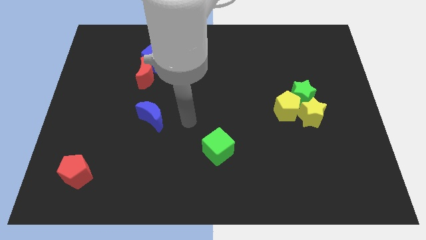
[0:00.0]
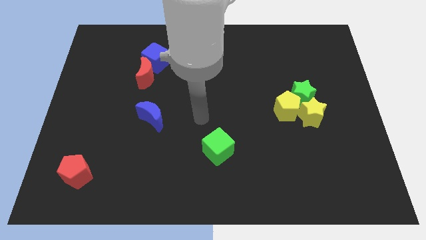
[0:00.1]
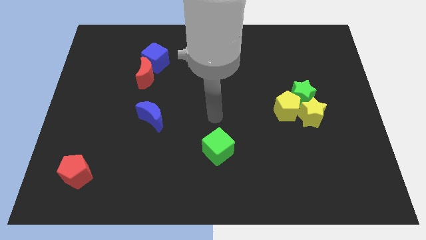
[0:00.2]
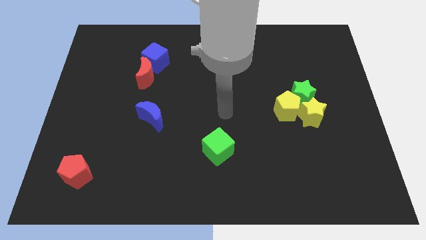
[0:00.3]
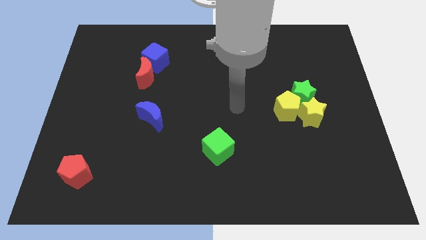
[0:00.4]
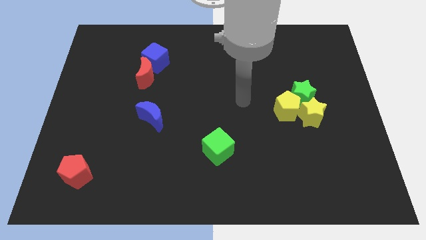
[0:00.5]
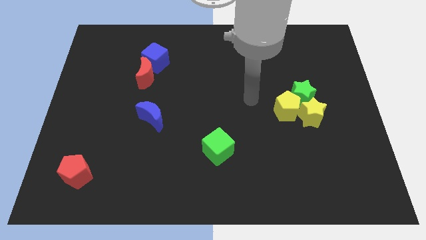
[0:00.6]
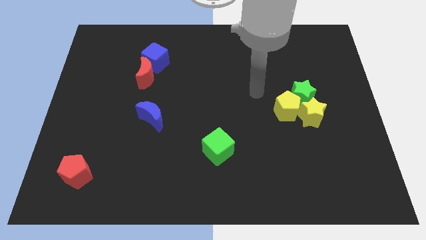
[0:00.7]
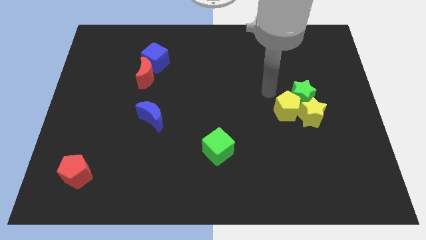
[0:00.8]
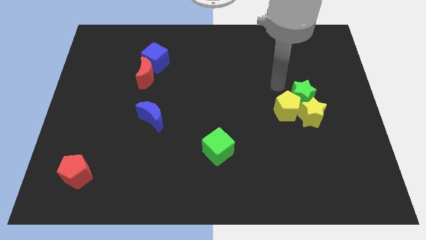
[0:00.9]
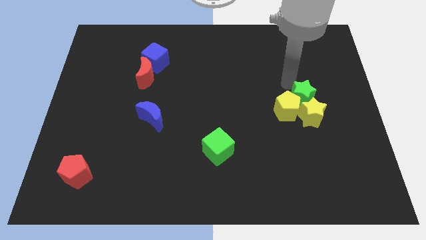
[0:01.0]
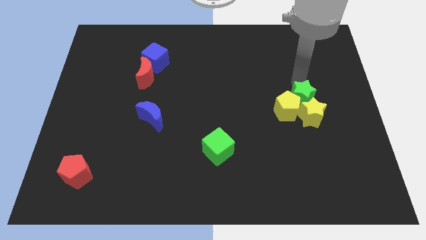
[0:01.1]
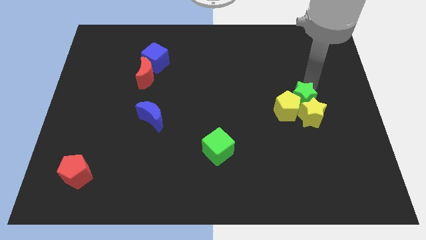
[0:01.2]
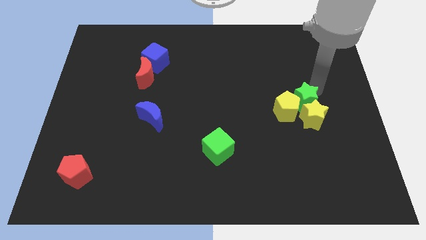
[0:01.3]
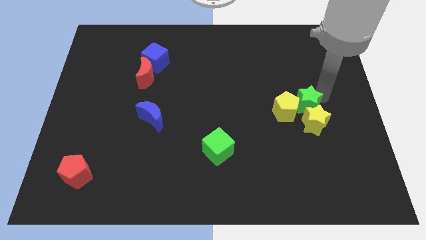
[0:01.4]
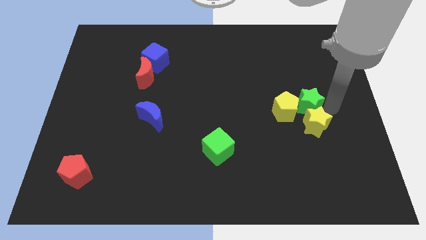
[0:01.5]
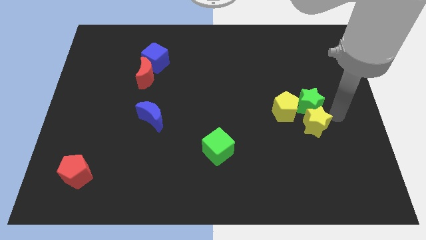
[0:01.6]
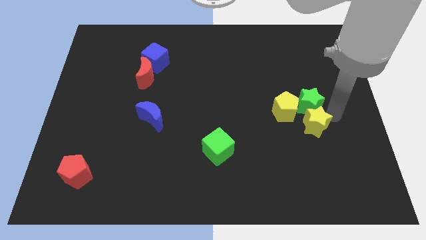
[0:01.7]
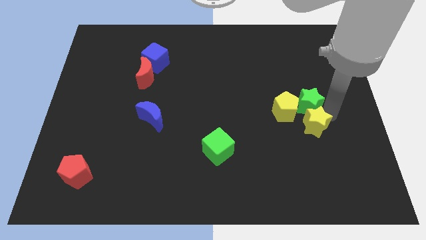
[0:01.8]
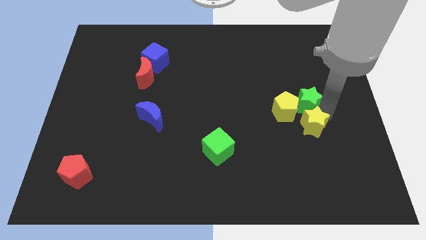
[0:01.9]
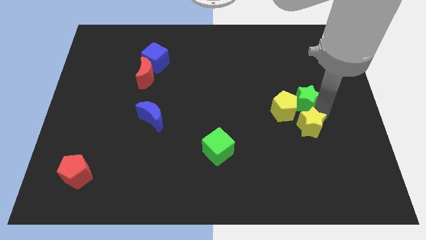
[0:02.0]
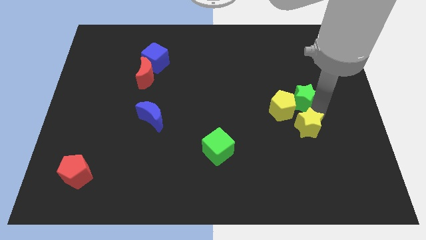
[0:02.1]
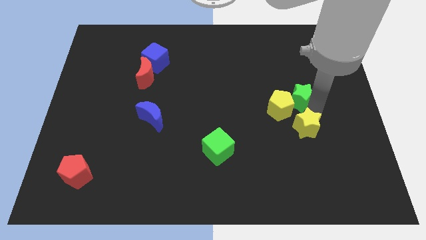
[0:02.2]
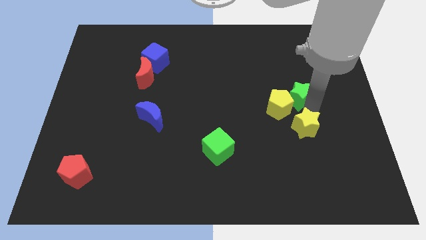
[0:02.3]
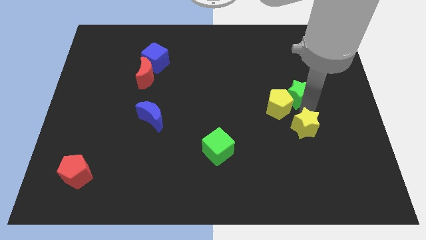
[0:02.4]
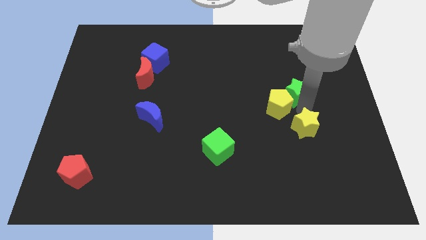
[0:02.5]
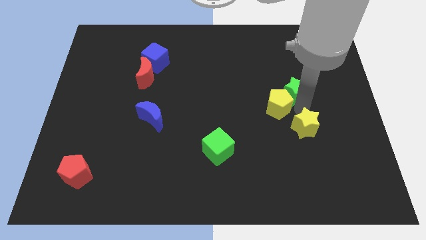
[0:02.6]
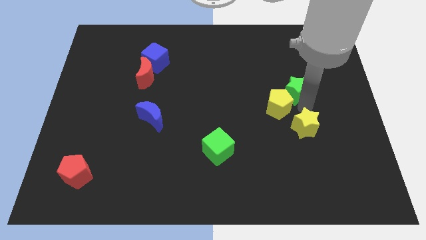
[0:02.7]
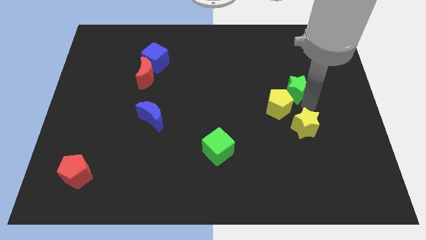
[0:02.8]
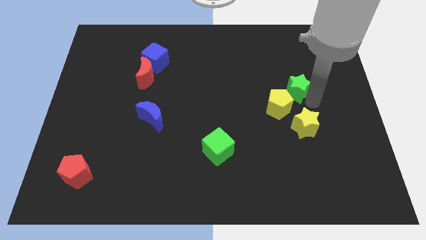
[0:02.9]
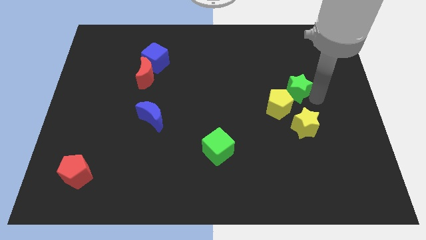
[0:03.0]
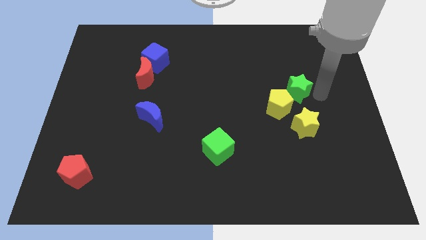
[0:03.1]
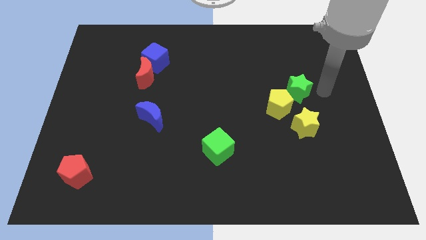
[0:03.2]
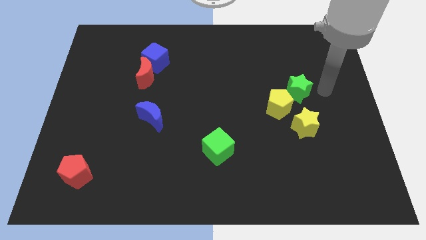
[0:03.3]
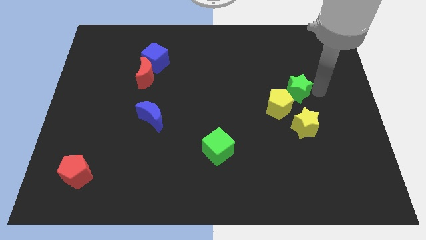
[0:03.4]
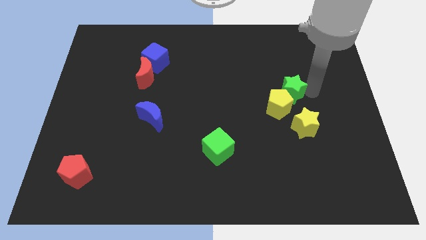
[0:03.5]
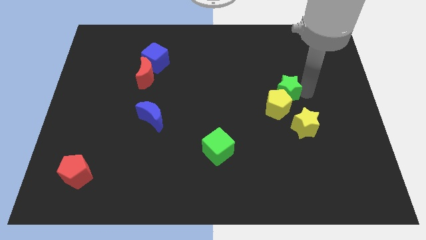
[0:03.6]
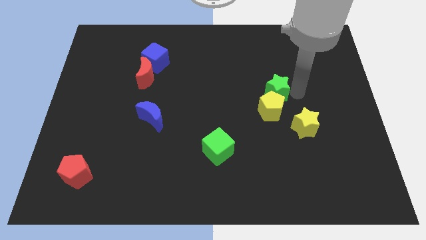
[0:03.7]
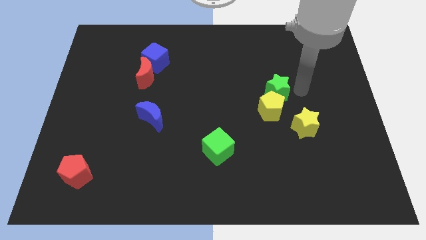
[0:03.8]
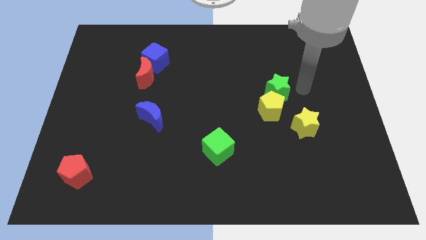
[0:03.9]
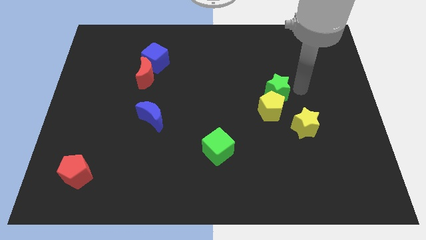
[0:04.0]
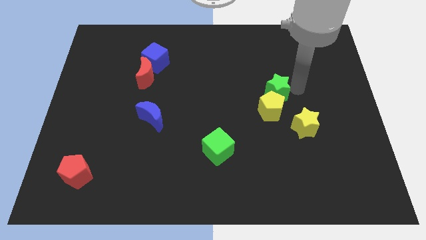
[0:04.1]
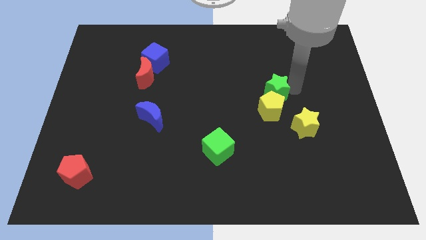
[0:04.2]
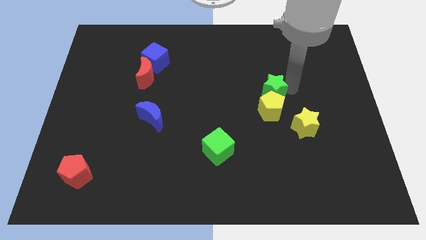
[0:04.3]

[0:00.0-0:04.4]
push the green star left somewhat

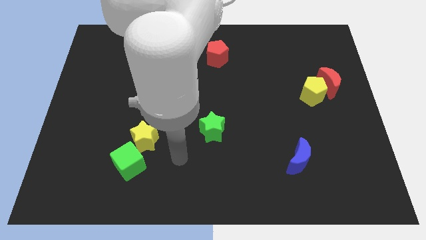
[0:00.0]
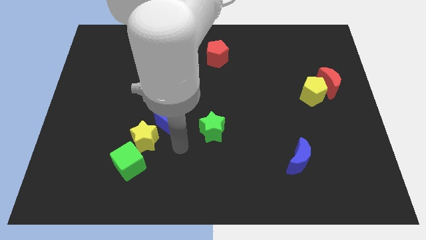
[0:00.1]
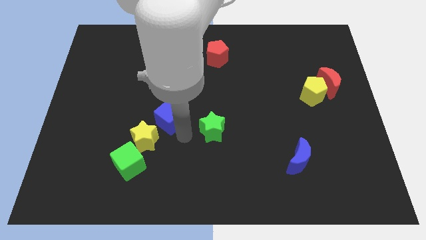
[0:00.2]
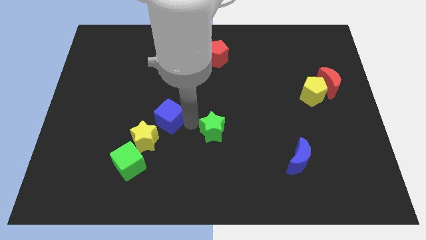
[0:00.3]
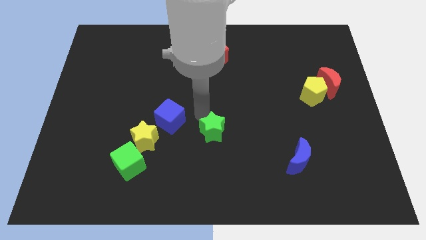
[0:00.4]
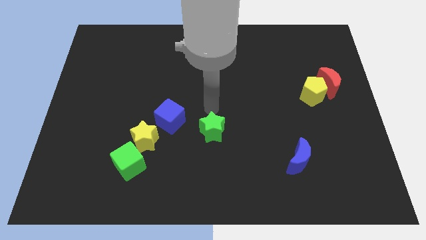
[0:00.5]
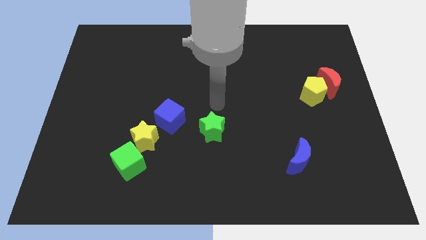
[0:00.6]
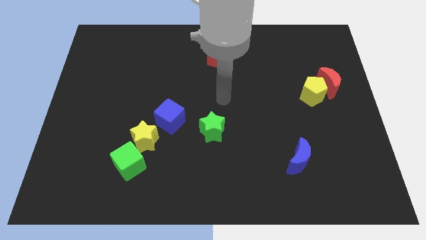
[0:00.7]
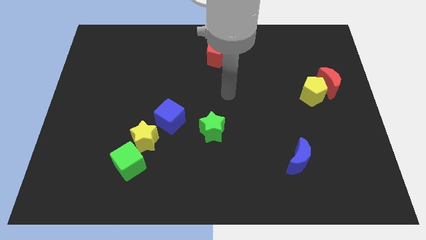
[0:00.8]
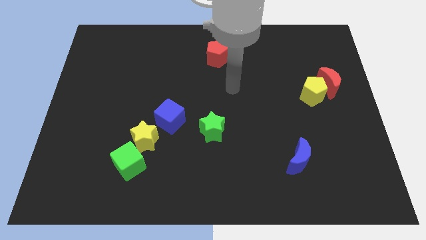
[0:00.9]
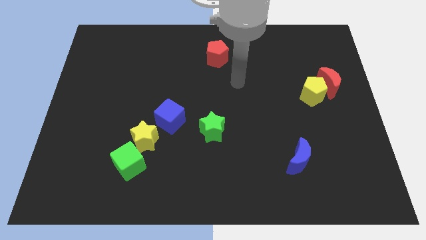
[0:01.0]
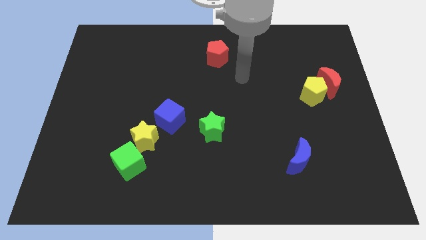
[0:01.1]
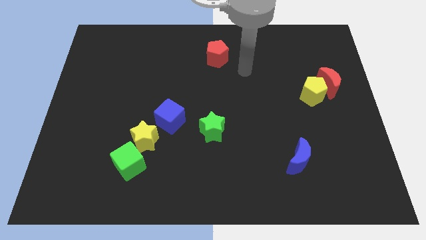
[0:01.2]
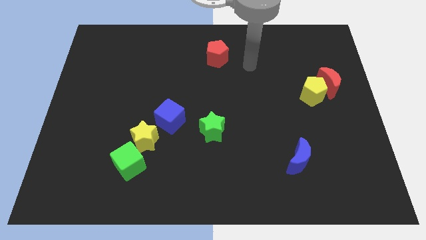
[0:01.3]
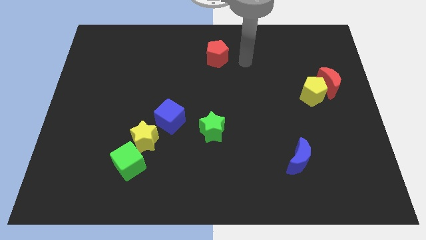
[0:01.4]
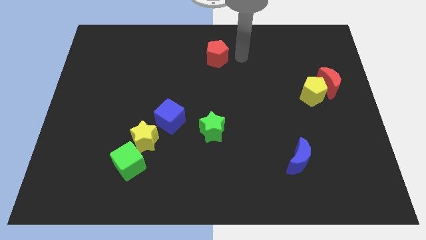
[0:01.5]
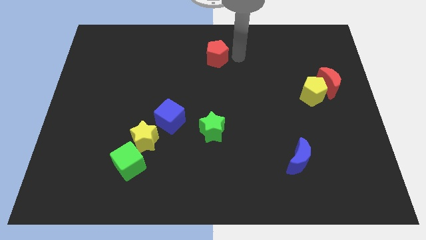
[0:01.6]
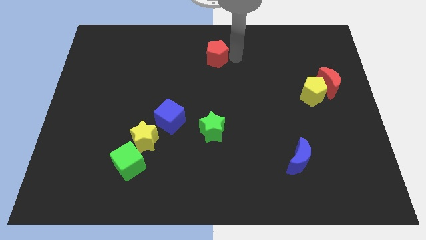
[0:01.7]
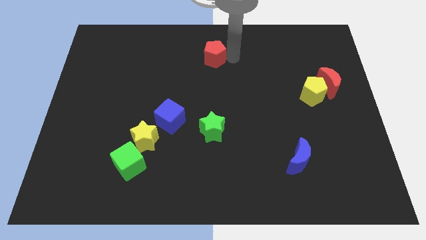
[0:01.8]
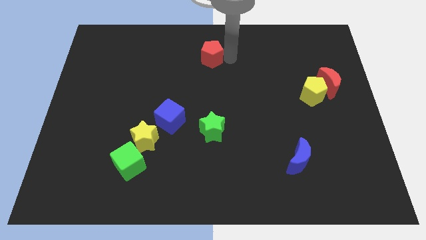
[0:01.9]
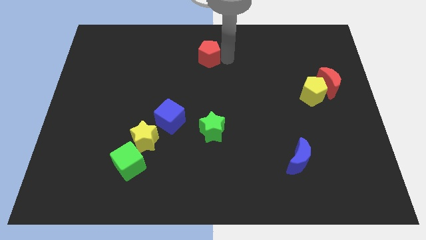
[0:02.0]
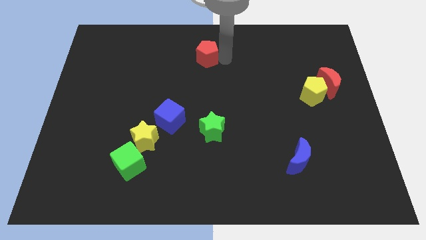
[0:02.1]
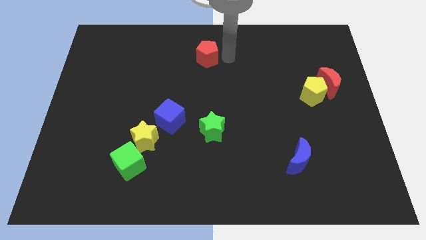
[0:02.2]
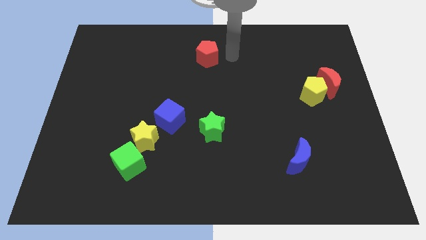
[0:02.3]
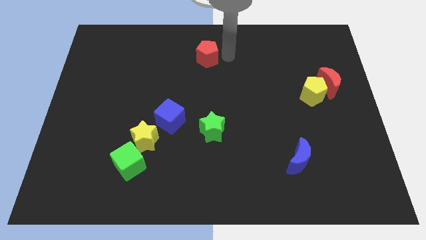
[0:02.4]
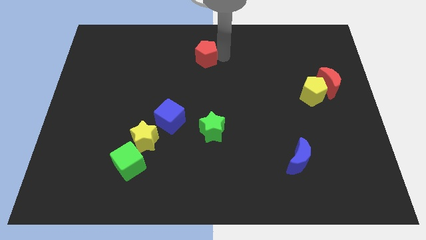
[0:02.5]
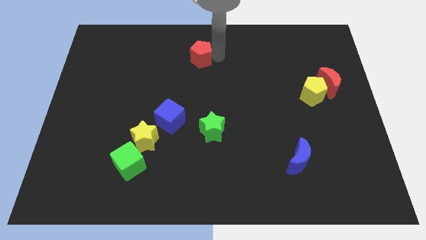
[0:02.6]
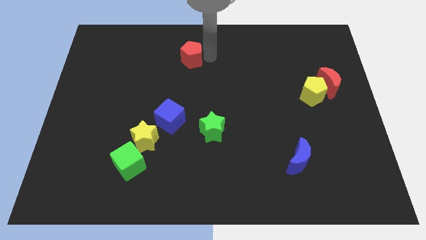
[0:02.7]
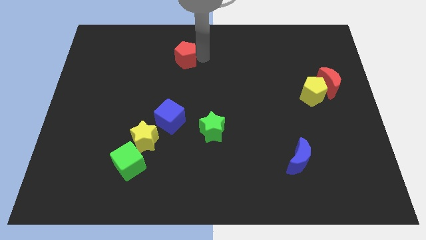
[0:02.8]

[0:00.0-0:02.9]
slide the red pentagon a bit left

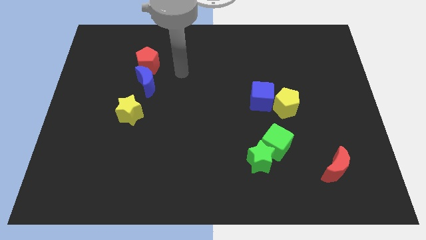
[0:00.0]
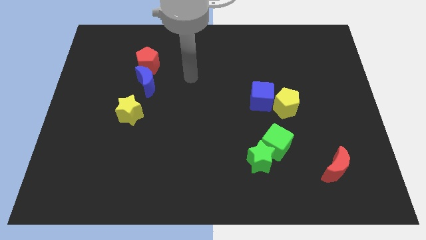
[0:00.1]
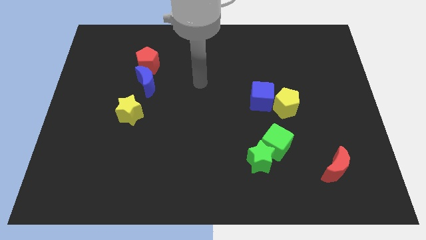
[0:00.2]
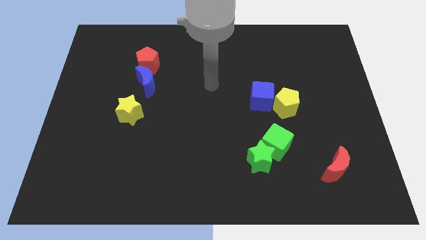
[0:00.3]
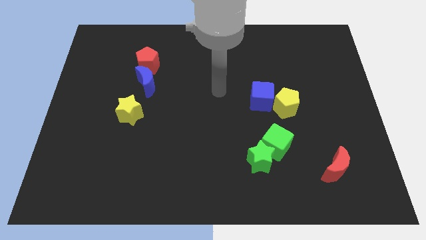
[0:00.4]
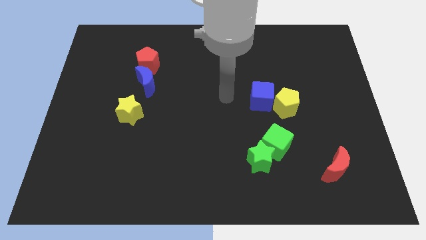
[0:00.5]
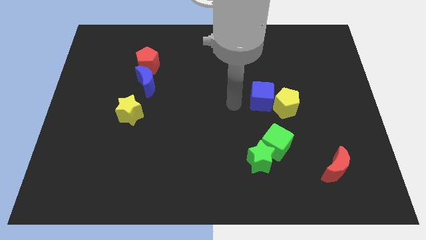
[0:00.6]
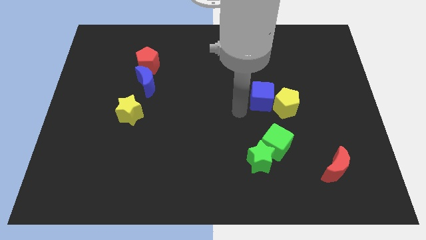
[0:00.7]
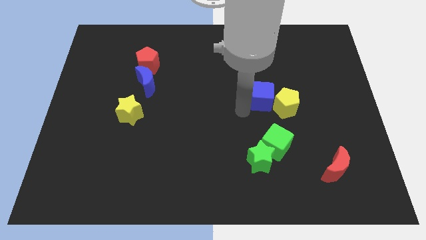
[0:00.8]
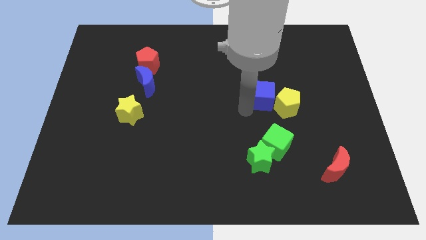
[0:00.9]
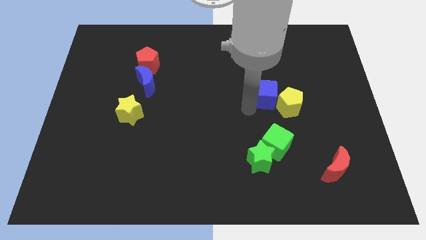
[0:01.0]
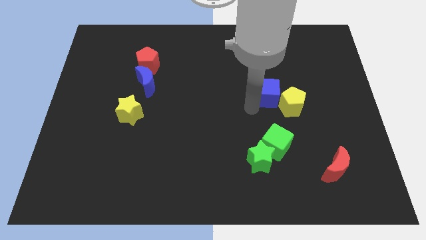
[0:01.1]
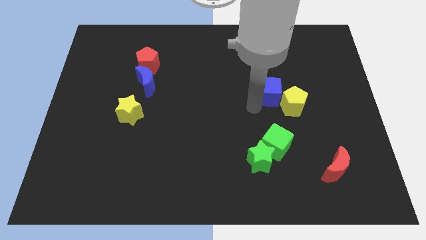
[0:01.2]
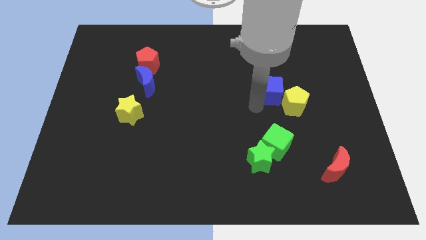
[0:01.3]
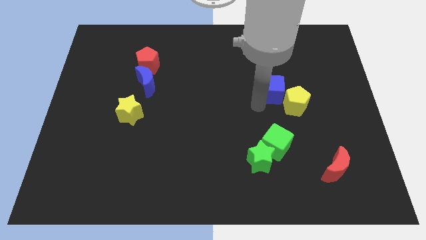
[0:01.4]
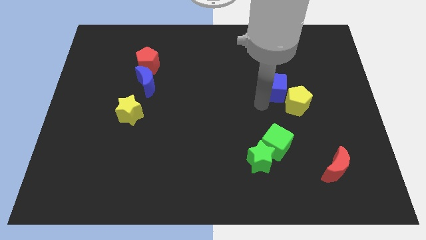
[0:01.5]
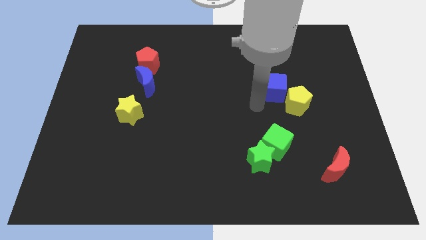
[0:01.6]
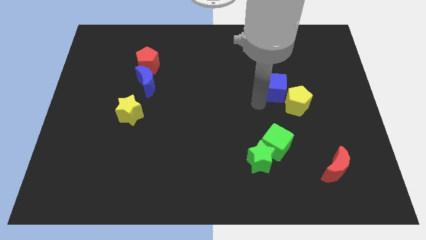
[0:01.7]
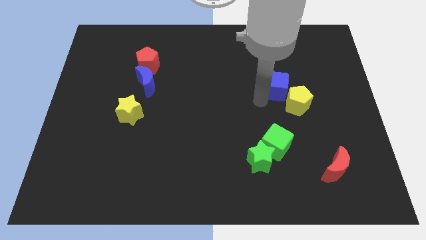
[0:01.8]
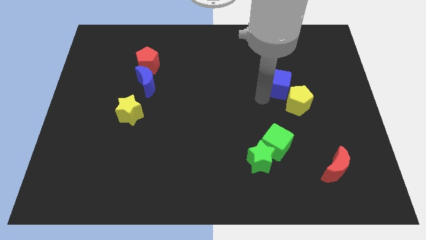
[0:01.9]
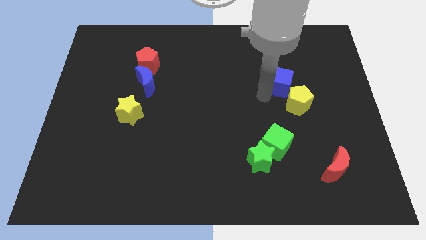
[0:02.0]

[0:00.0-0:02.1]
slide the blue cube slightly upwards and to the right diagonally
